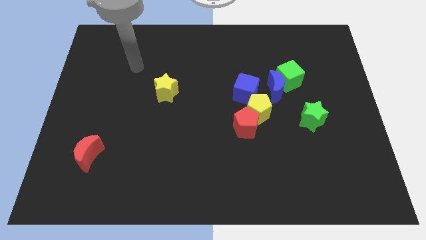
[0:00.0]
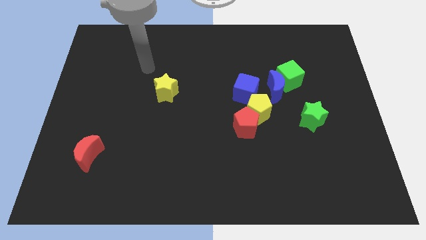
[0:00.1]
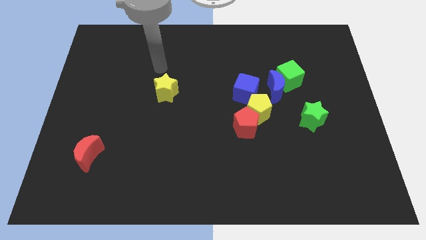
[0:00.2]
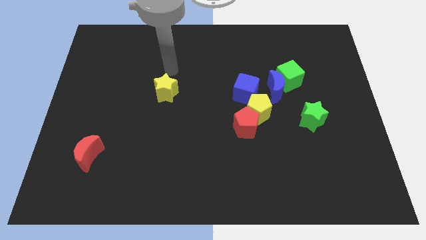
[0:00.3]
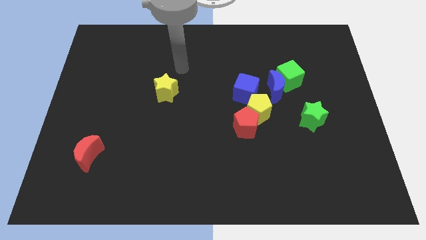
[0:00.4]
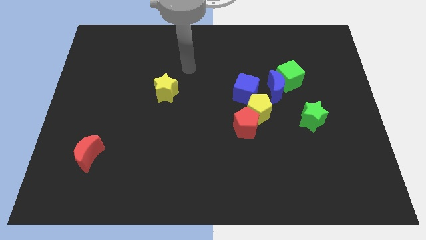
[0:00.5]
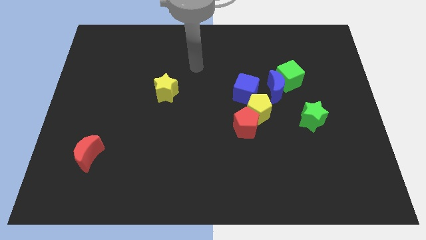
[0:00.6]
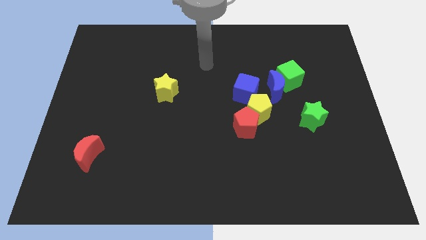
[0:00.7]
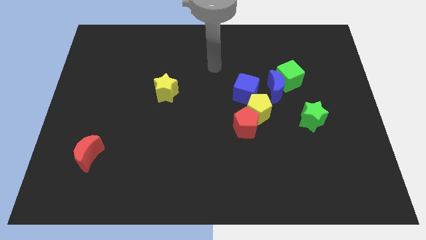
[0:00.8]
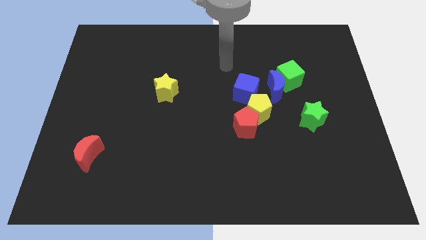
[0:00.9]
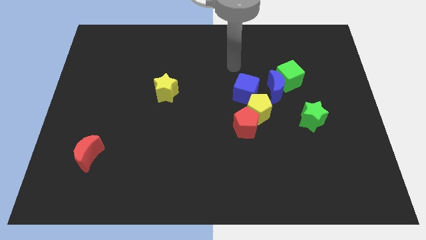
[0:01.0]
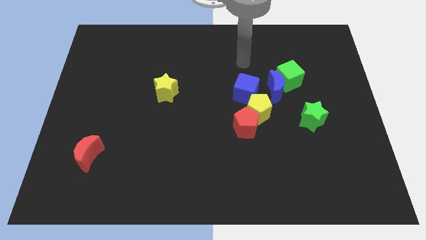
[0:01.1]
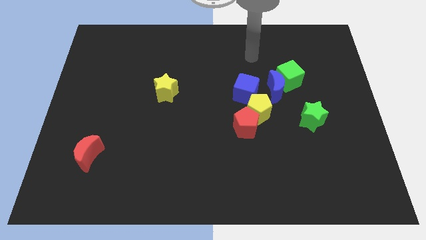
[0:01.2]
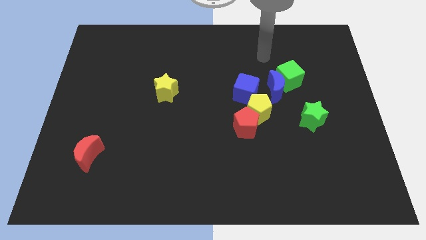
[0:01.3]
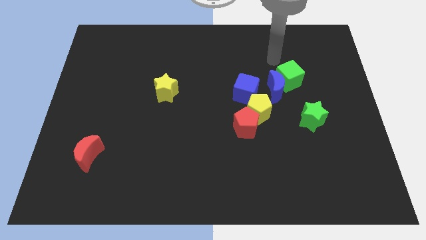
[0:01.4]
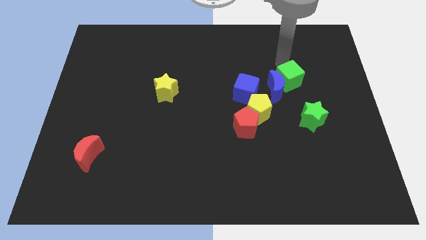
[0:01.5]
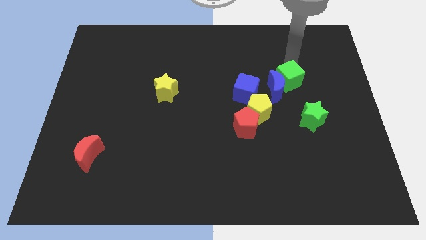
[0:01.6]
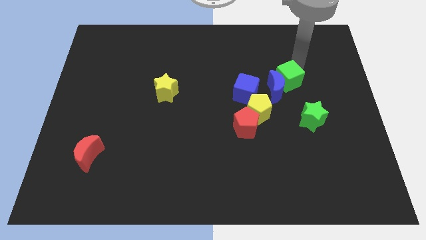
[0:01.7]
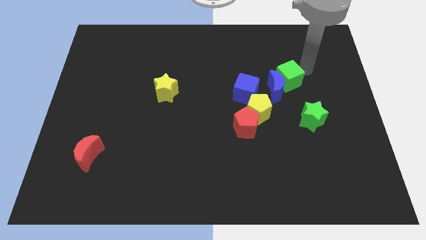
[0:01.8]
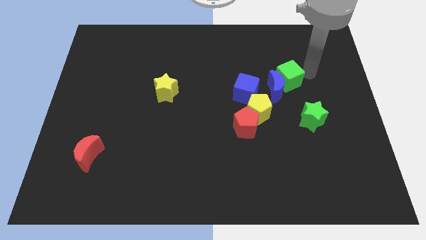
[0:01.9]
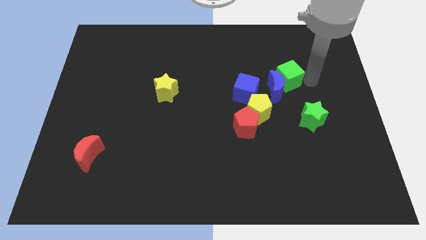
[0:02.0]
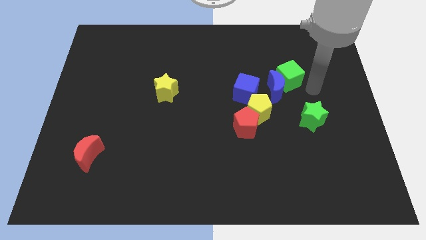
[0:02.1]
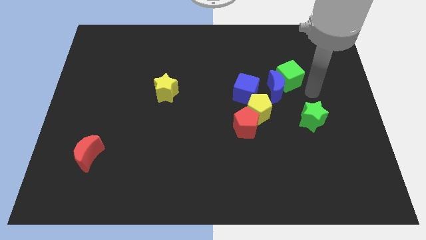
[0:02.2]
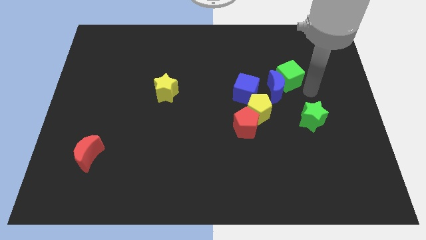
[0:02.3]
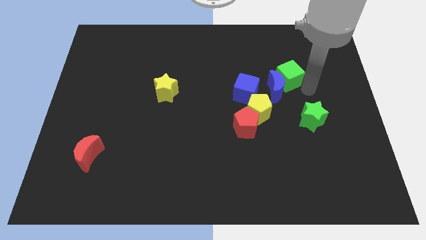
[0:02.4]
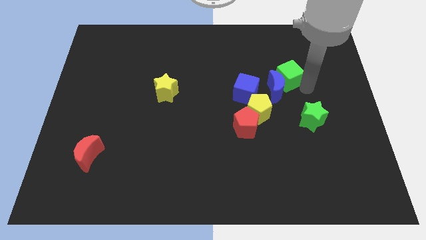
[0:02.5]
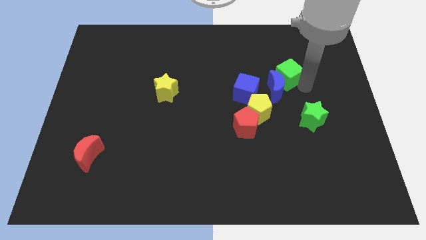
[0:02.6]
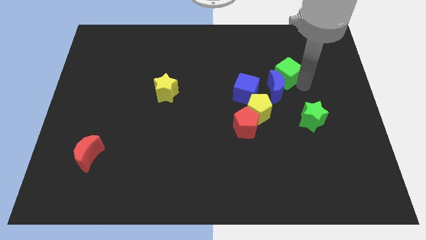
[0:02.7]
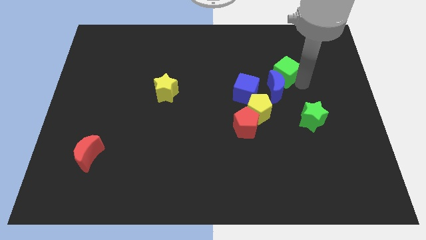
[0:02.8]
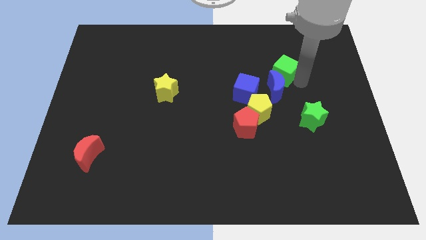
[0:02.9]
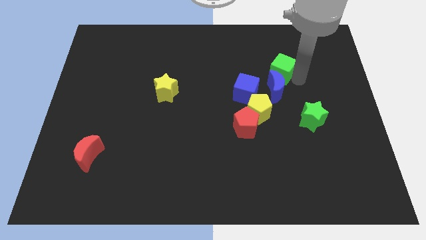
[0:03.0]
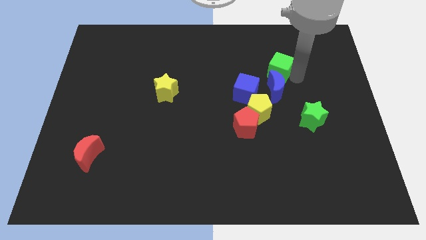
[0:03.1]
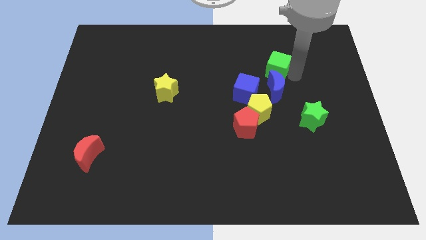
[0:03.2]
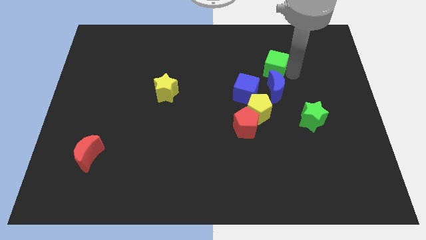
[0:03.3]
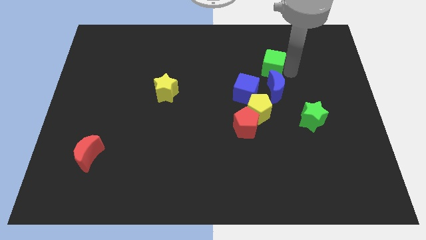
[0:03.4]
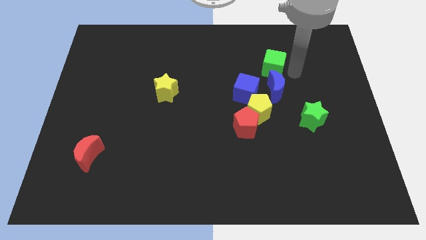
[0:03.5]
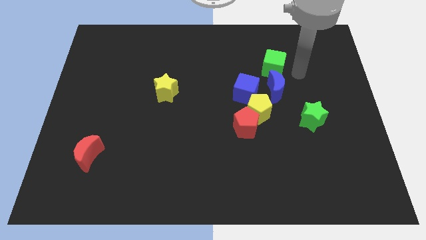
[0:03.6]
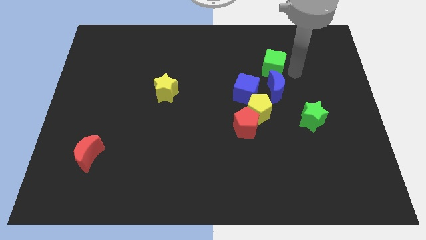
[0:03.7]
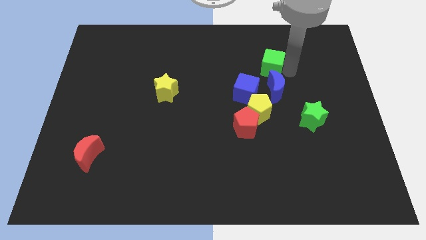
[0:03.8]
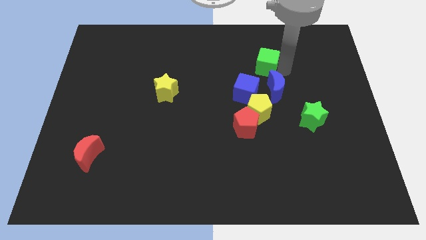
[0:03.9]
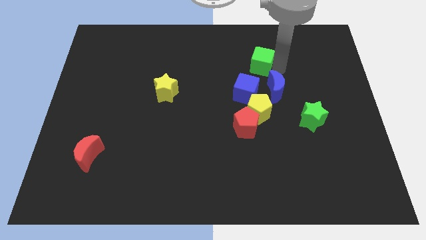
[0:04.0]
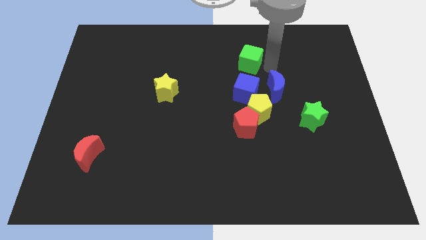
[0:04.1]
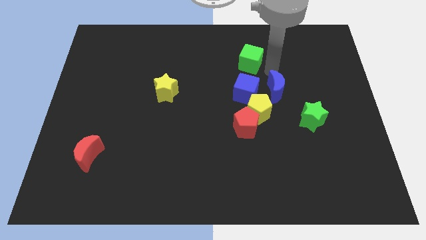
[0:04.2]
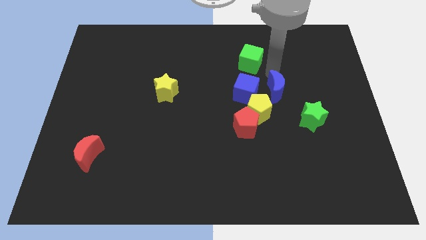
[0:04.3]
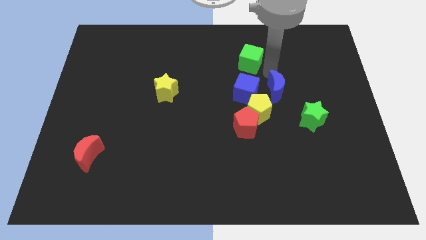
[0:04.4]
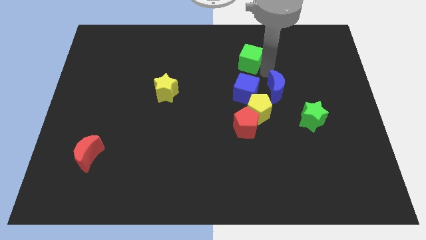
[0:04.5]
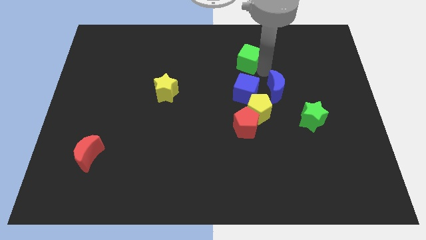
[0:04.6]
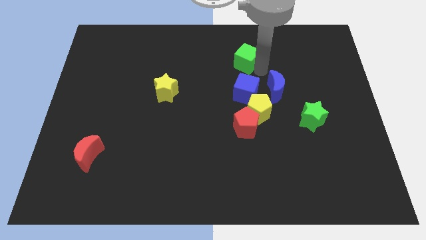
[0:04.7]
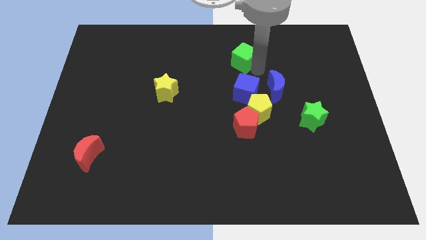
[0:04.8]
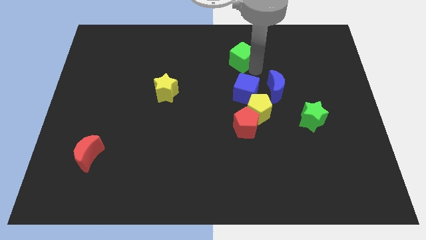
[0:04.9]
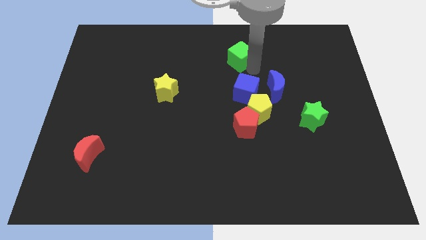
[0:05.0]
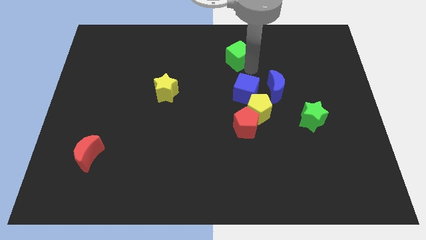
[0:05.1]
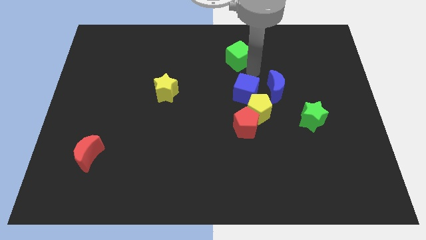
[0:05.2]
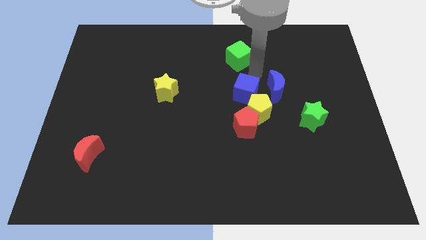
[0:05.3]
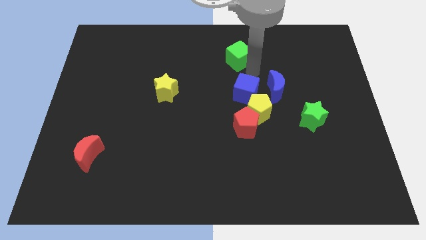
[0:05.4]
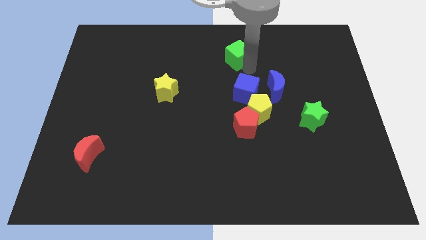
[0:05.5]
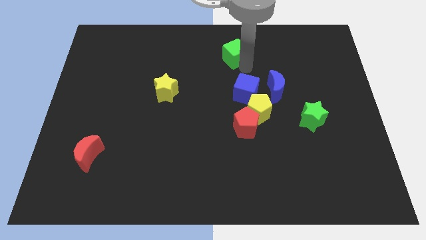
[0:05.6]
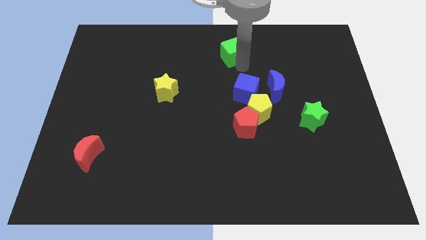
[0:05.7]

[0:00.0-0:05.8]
slide the green cube to the top

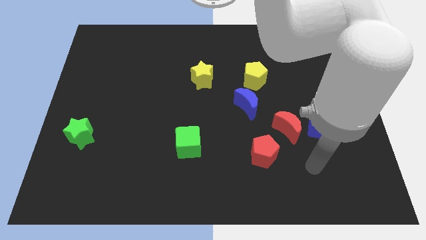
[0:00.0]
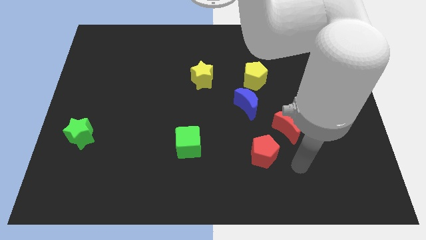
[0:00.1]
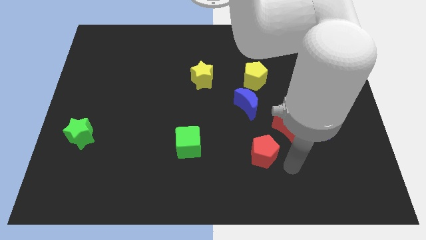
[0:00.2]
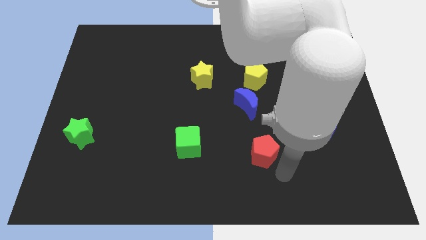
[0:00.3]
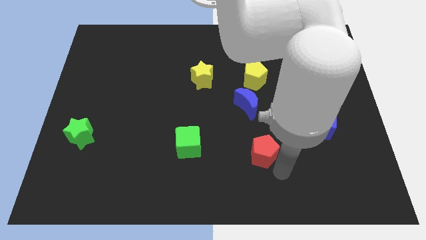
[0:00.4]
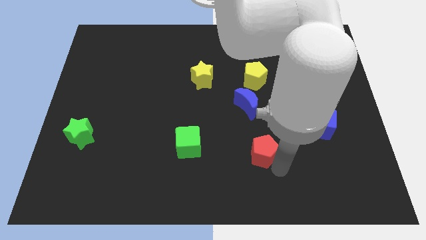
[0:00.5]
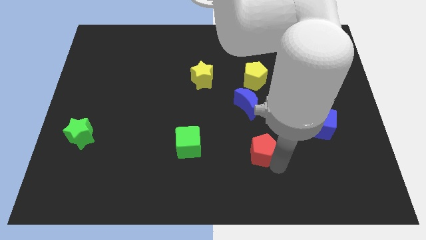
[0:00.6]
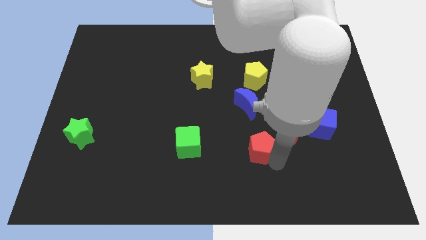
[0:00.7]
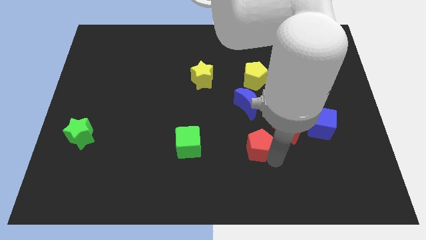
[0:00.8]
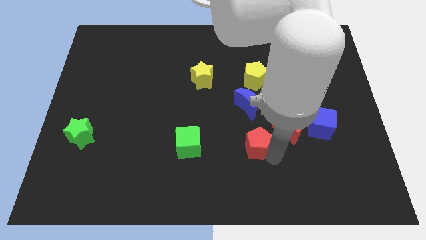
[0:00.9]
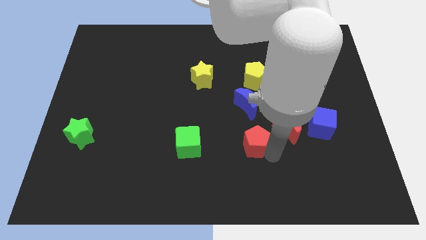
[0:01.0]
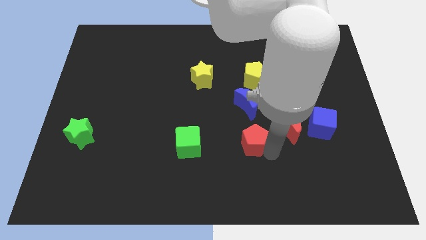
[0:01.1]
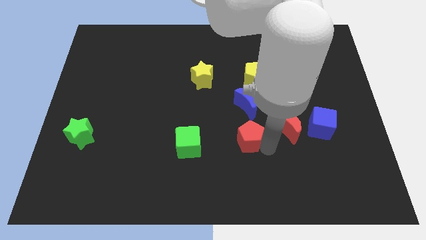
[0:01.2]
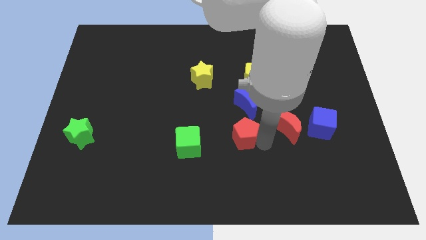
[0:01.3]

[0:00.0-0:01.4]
put the red pentagon to the middle of the board
